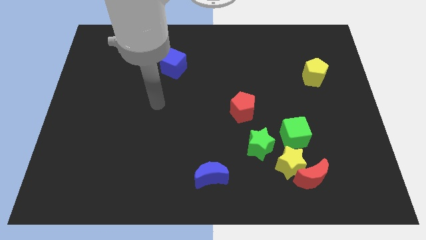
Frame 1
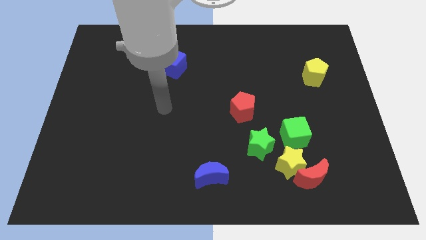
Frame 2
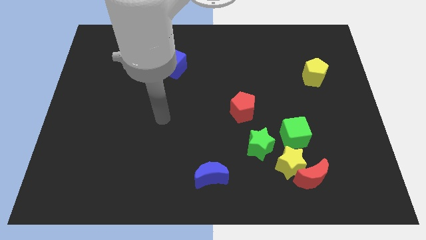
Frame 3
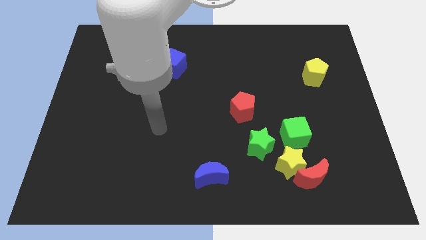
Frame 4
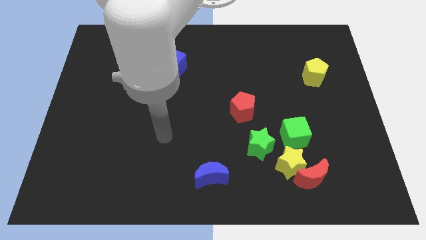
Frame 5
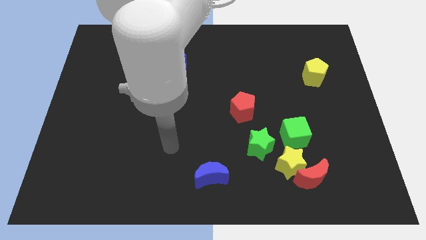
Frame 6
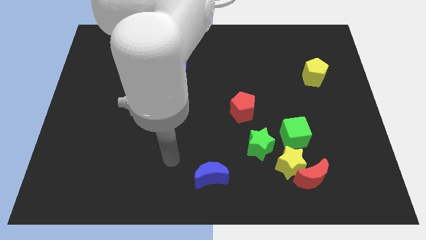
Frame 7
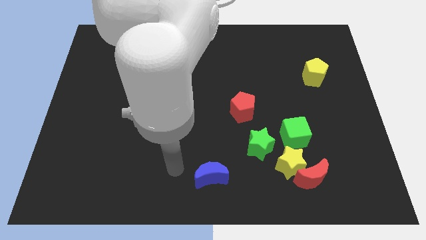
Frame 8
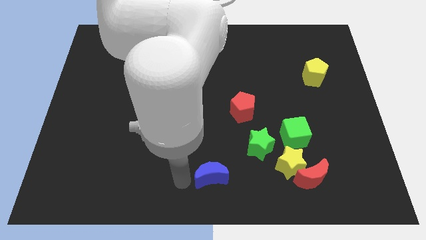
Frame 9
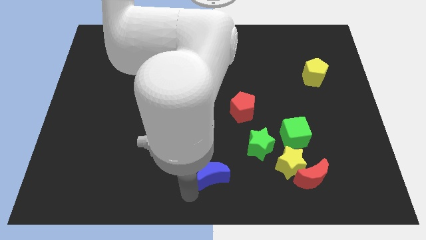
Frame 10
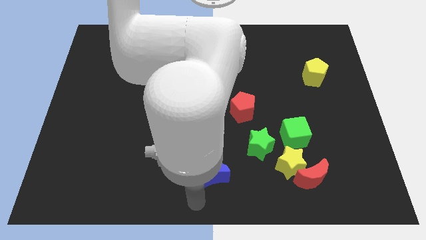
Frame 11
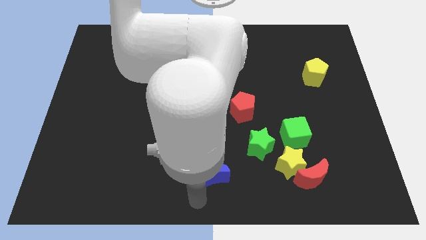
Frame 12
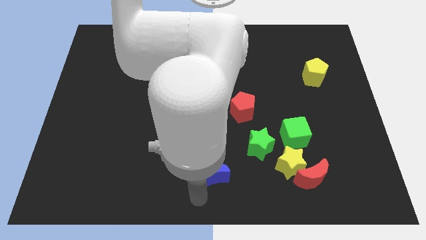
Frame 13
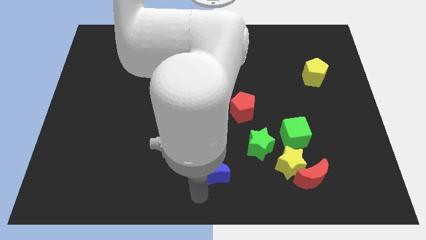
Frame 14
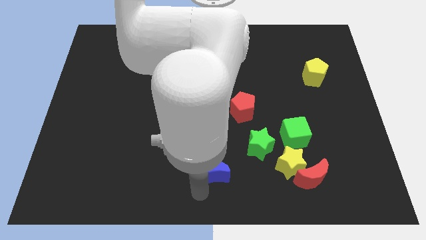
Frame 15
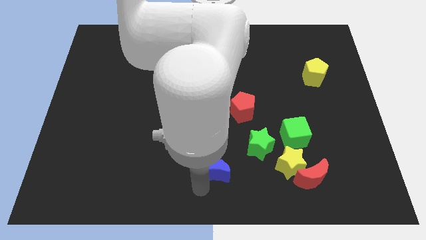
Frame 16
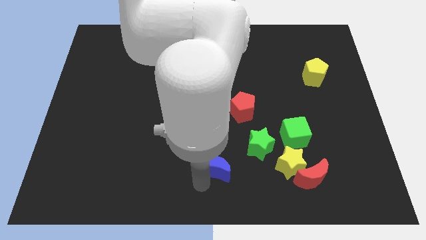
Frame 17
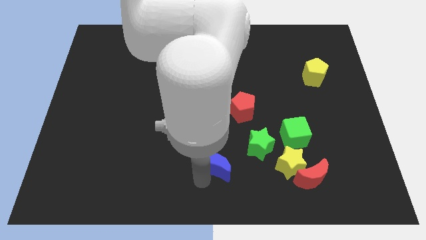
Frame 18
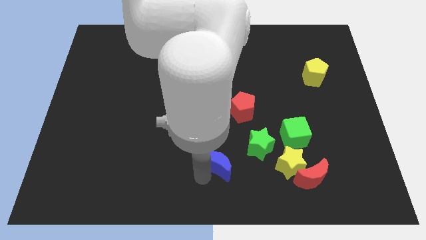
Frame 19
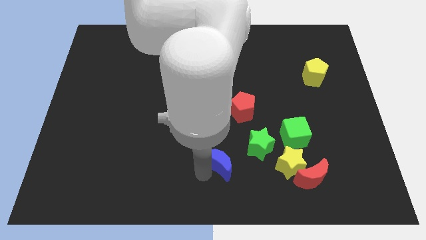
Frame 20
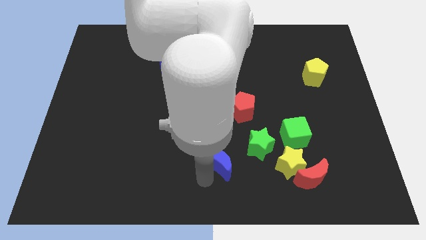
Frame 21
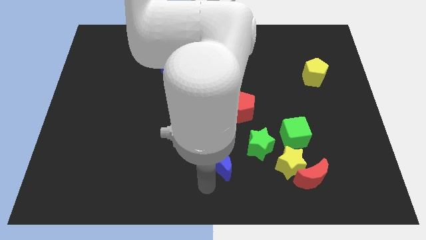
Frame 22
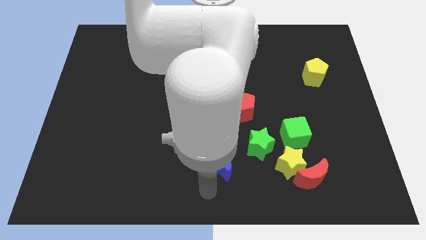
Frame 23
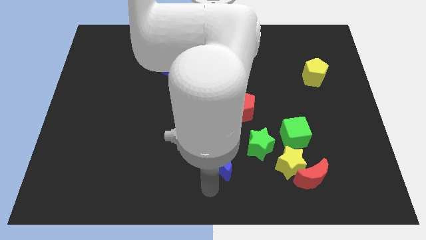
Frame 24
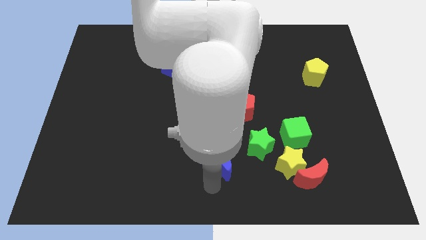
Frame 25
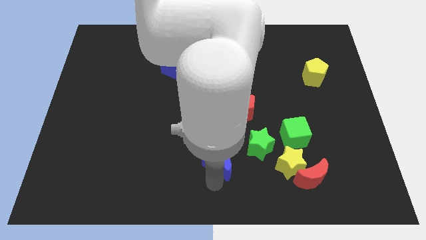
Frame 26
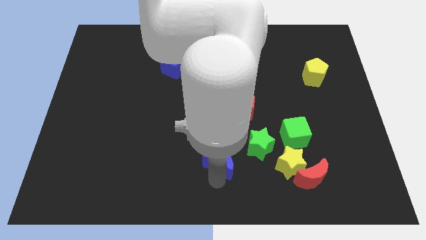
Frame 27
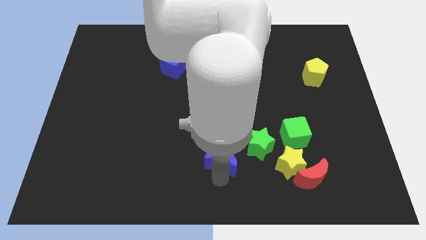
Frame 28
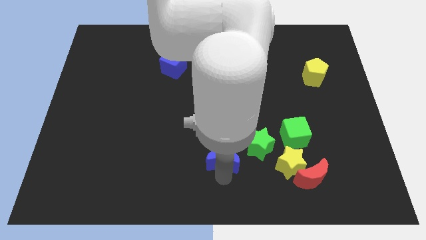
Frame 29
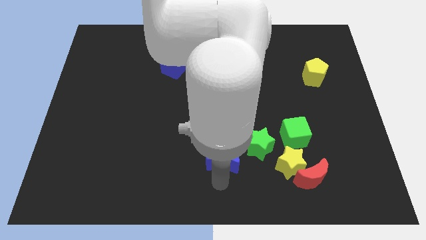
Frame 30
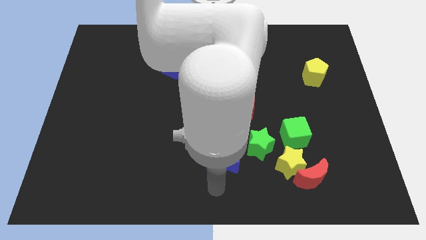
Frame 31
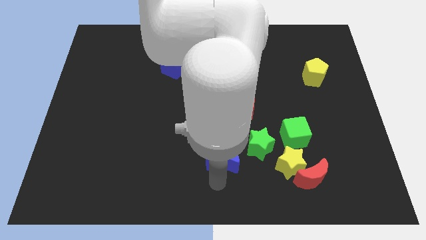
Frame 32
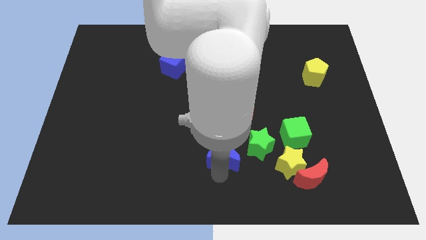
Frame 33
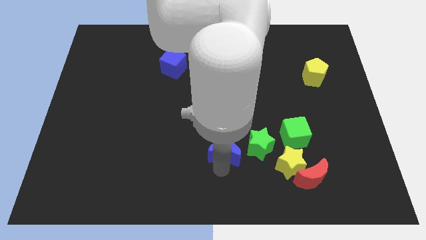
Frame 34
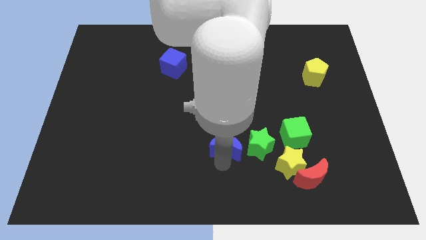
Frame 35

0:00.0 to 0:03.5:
slightly push the blue moon diagonally up and right

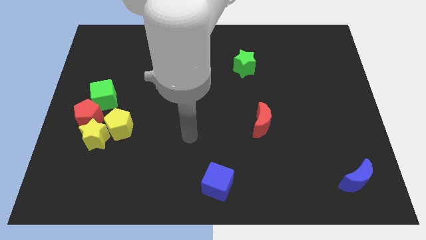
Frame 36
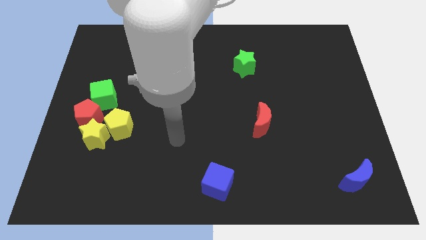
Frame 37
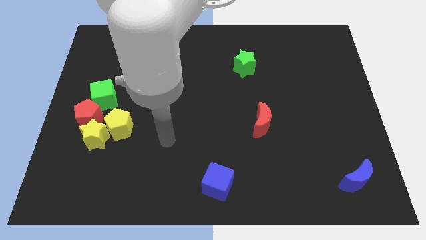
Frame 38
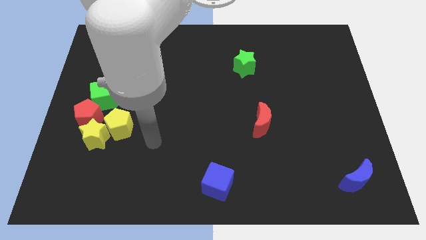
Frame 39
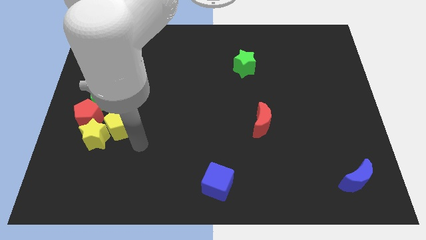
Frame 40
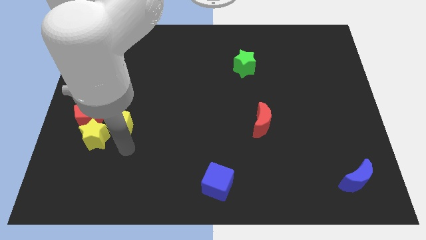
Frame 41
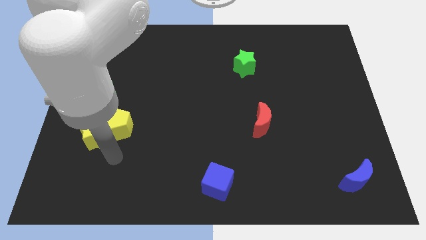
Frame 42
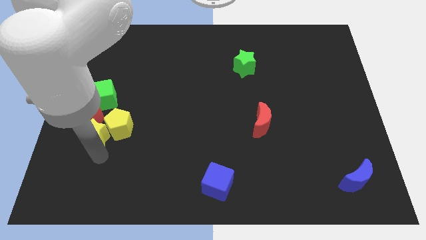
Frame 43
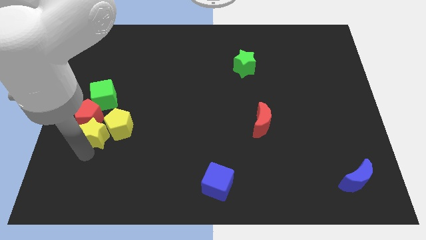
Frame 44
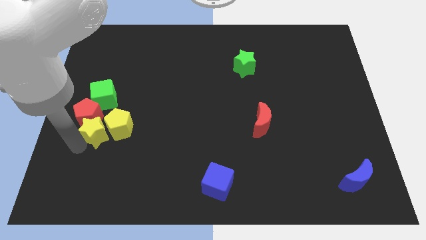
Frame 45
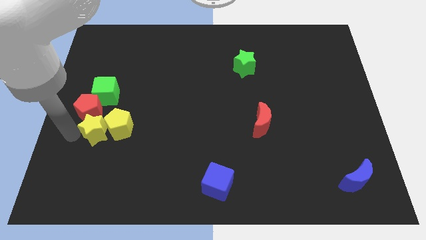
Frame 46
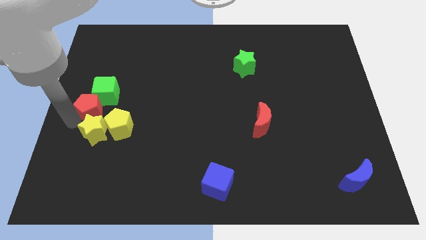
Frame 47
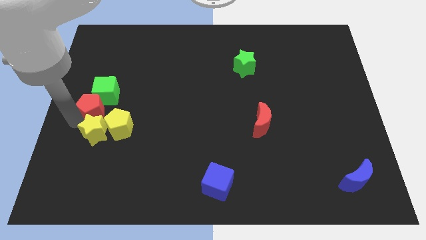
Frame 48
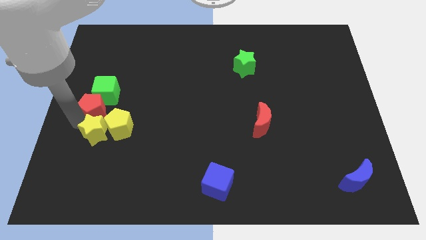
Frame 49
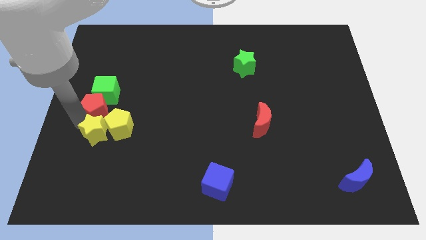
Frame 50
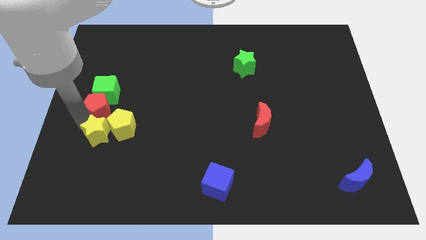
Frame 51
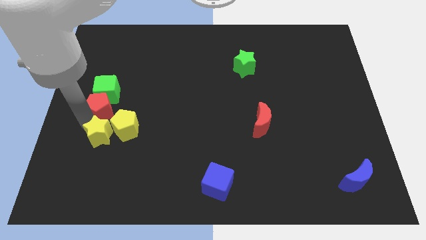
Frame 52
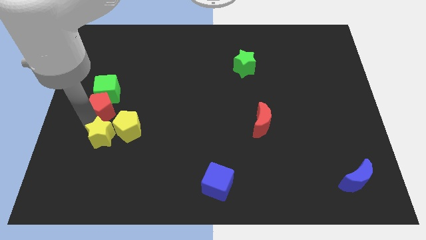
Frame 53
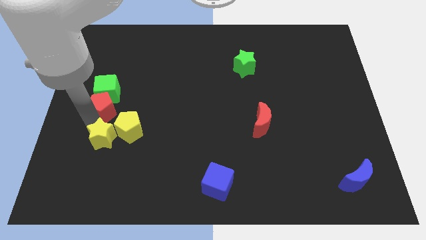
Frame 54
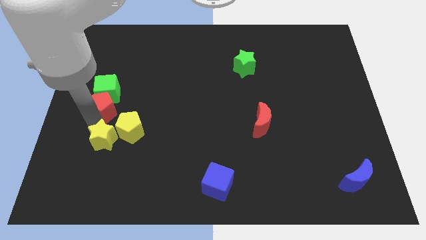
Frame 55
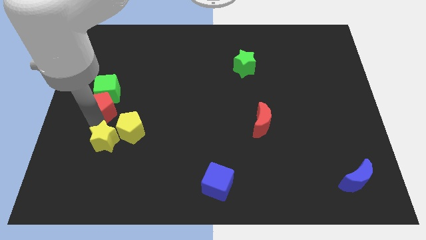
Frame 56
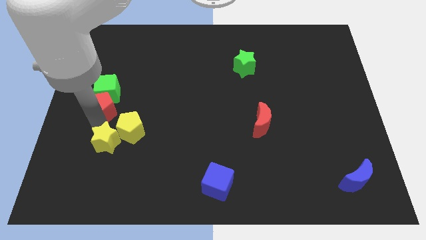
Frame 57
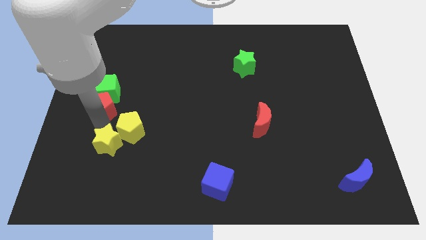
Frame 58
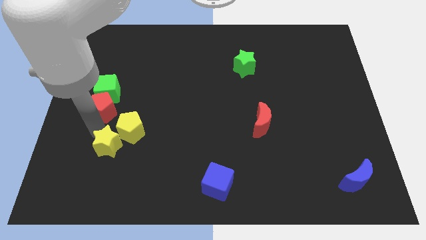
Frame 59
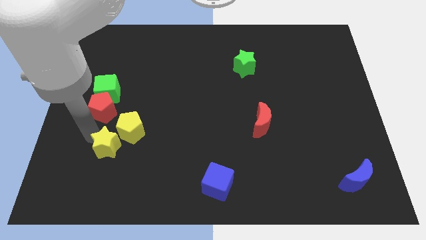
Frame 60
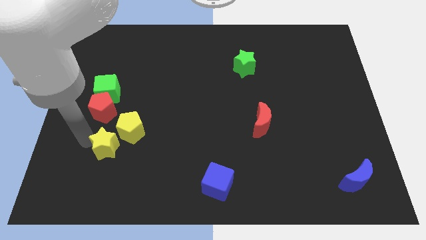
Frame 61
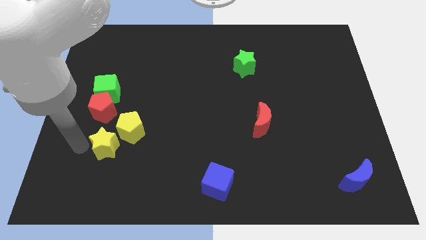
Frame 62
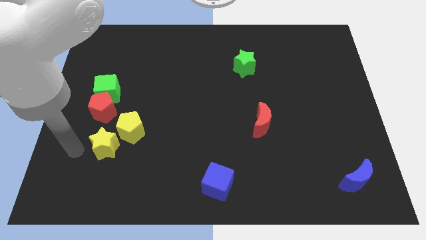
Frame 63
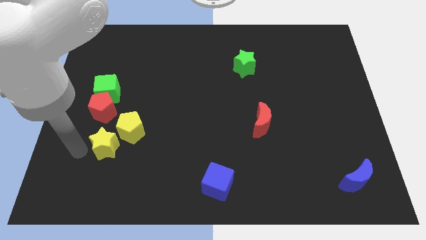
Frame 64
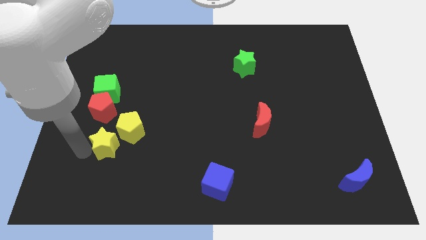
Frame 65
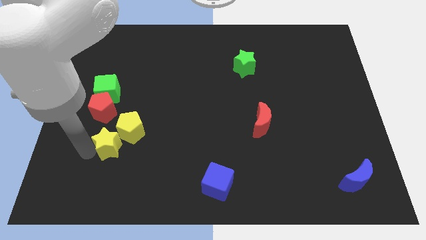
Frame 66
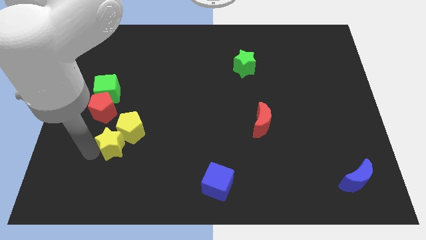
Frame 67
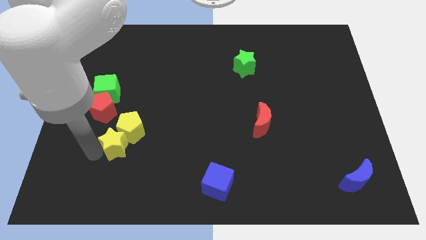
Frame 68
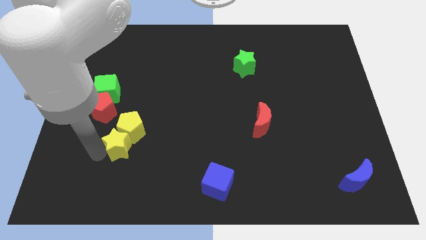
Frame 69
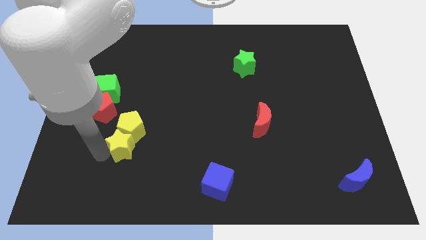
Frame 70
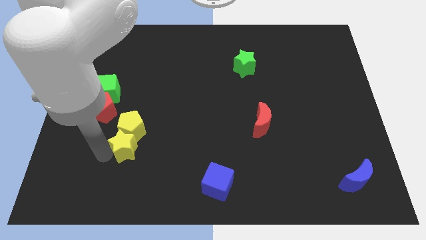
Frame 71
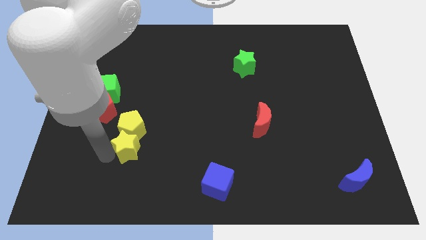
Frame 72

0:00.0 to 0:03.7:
push the yellow star to the right somewhat

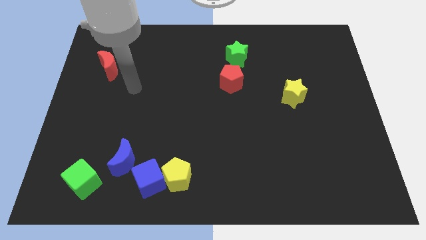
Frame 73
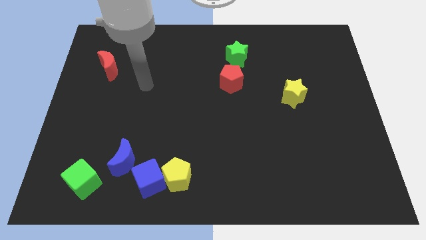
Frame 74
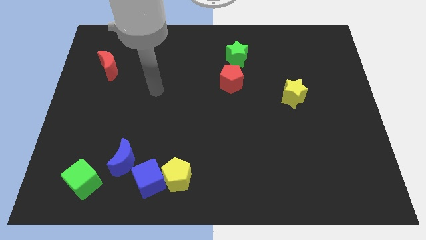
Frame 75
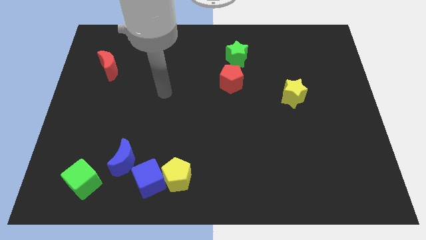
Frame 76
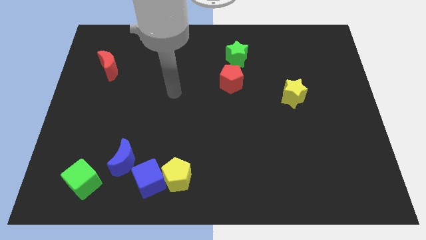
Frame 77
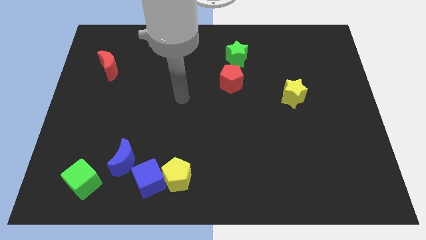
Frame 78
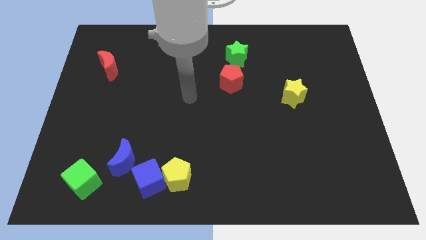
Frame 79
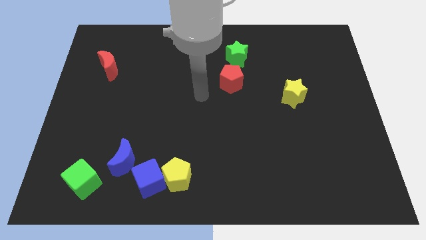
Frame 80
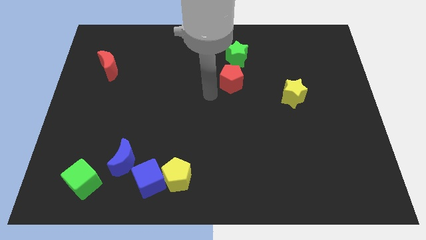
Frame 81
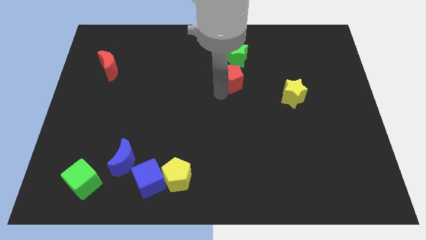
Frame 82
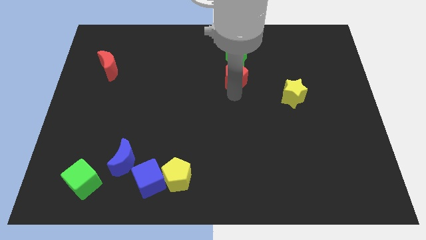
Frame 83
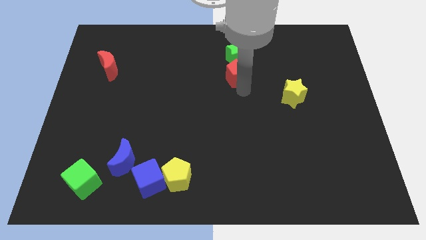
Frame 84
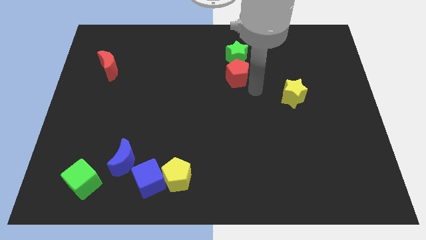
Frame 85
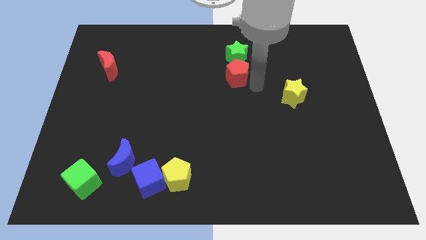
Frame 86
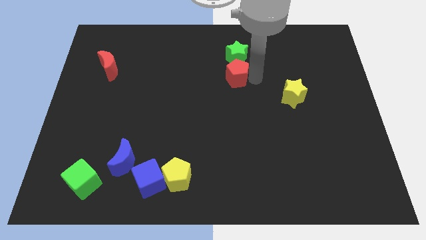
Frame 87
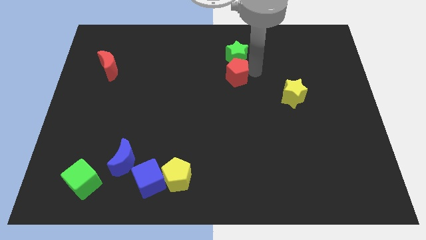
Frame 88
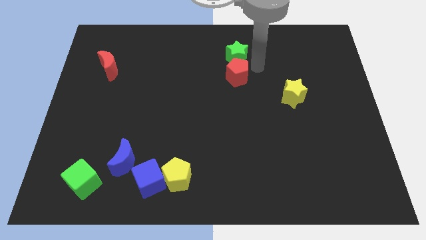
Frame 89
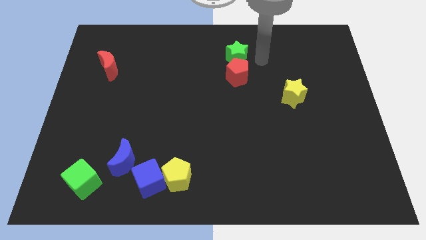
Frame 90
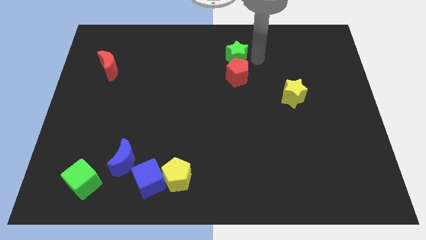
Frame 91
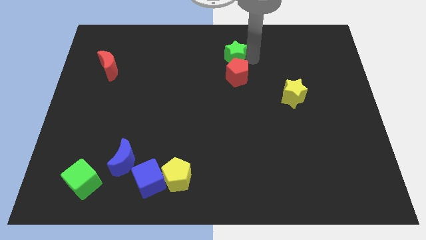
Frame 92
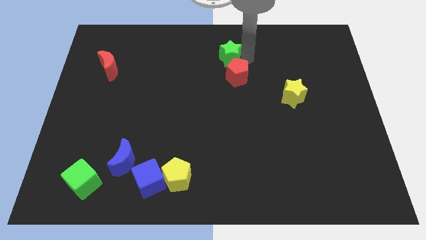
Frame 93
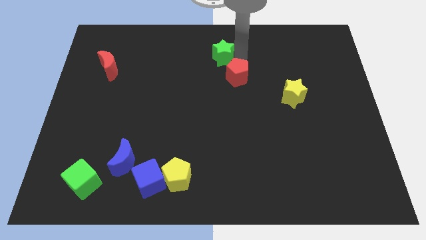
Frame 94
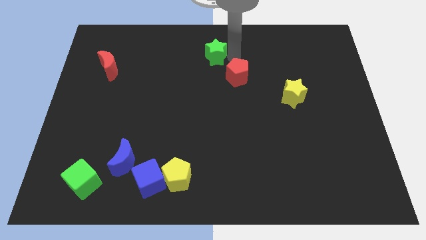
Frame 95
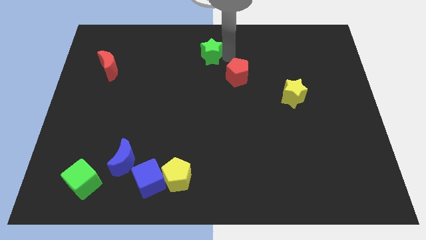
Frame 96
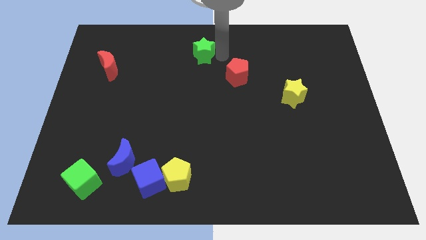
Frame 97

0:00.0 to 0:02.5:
slightly move the green star to the left
